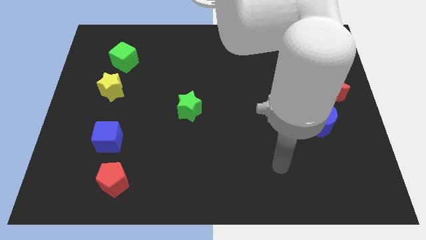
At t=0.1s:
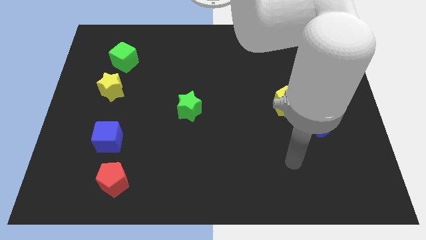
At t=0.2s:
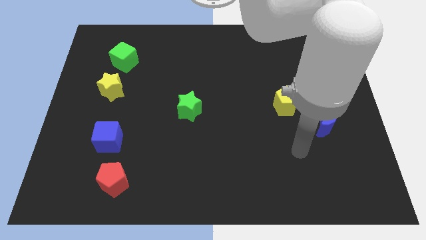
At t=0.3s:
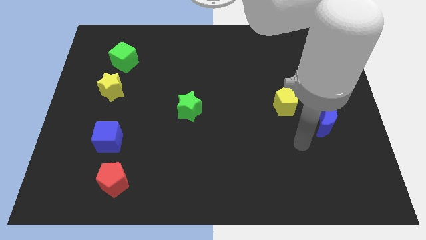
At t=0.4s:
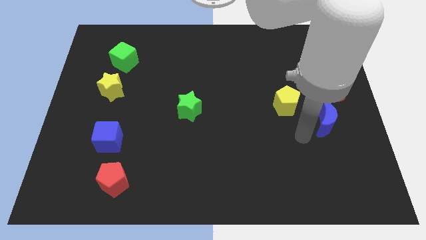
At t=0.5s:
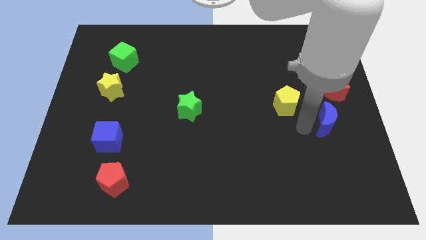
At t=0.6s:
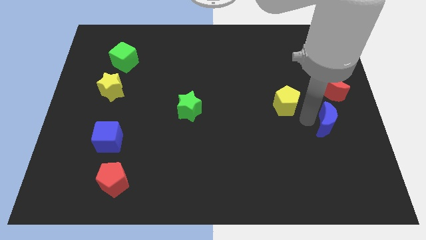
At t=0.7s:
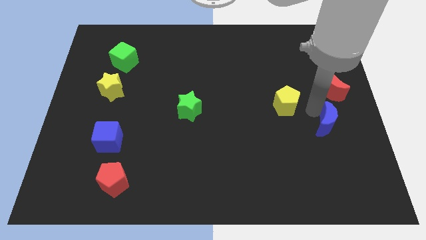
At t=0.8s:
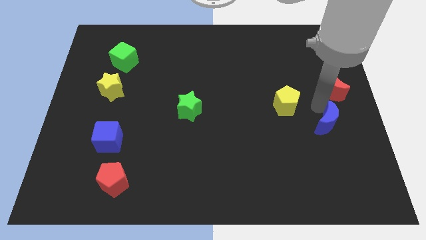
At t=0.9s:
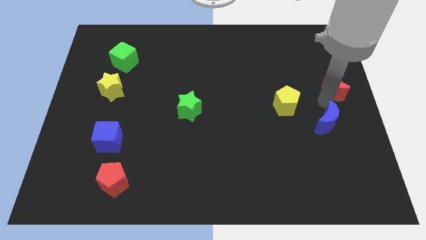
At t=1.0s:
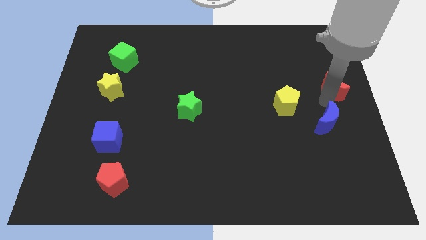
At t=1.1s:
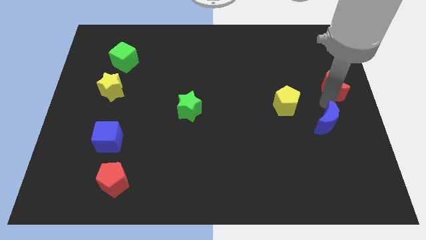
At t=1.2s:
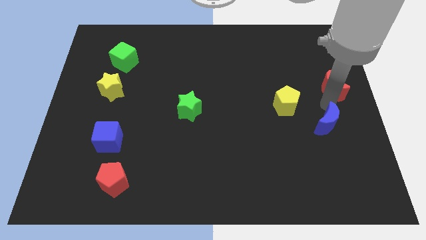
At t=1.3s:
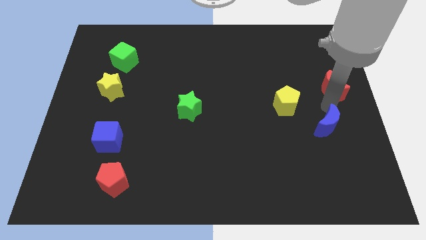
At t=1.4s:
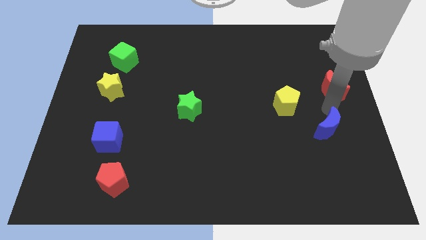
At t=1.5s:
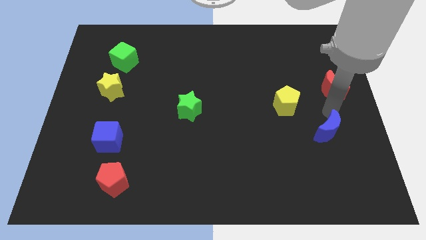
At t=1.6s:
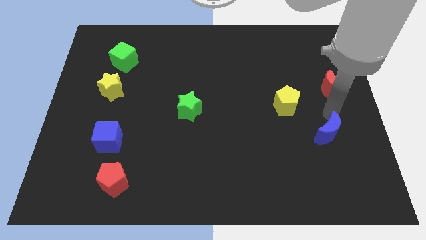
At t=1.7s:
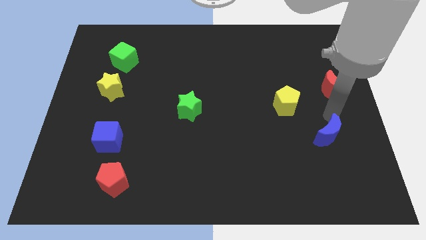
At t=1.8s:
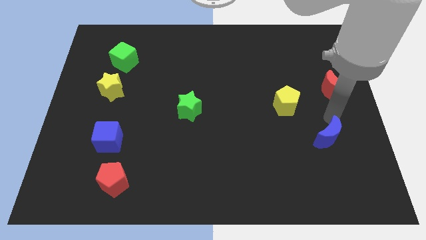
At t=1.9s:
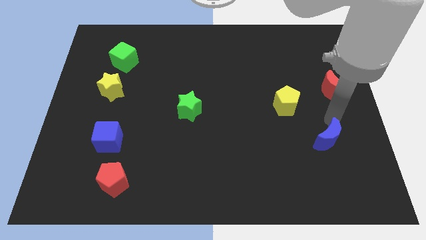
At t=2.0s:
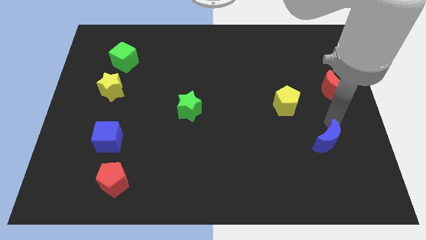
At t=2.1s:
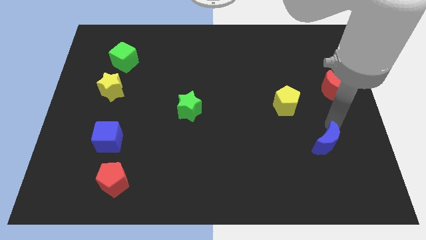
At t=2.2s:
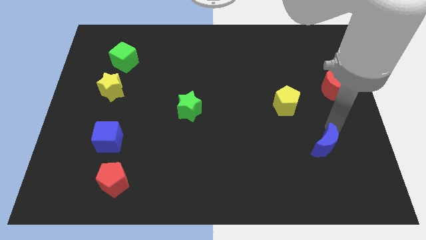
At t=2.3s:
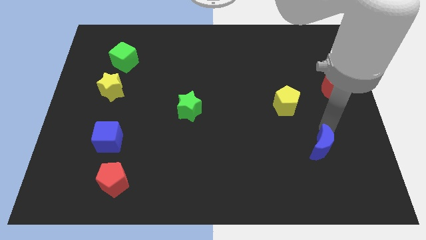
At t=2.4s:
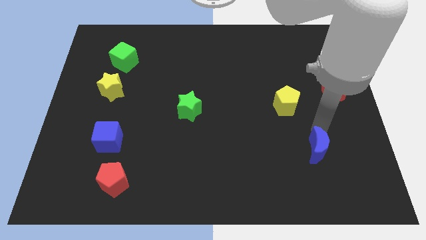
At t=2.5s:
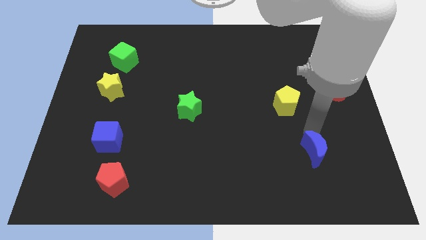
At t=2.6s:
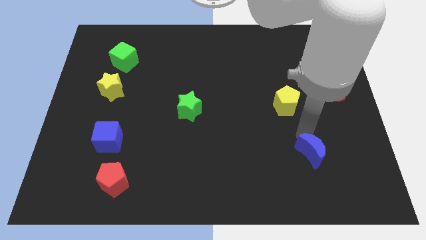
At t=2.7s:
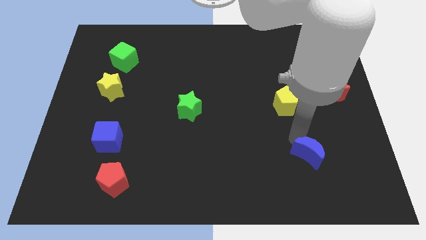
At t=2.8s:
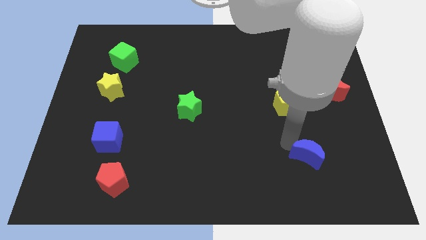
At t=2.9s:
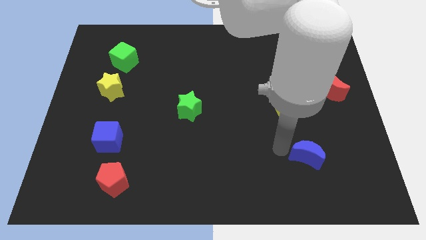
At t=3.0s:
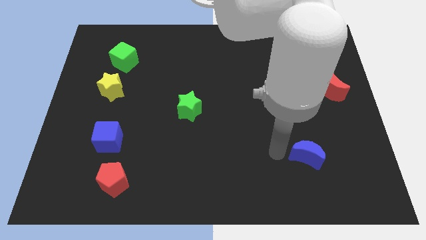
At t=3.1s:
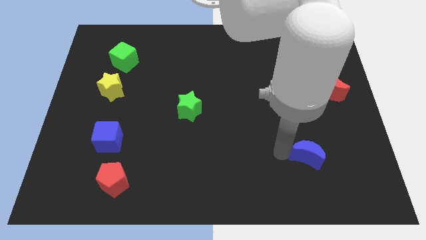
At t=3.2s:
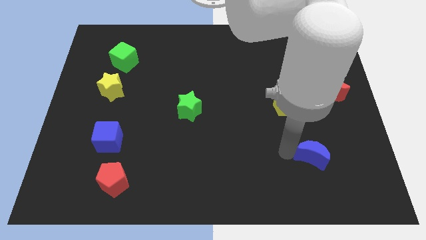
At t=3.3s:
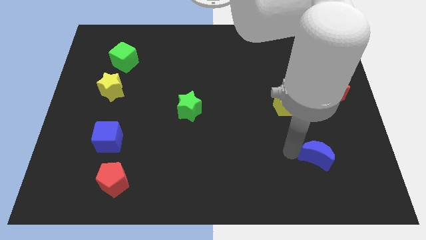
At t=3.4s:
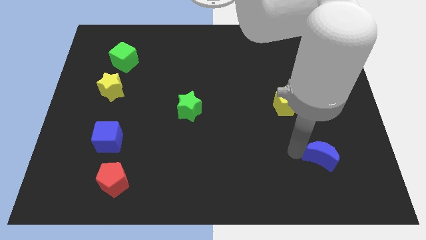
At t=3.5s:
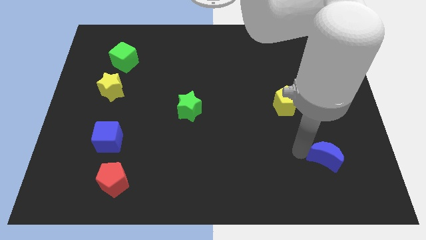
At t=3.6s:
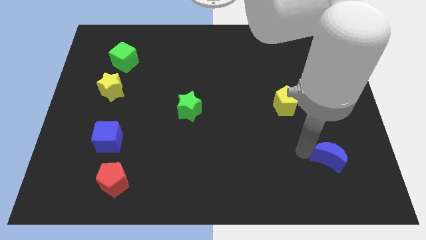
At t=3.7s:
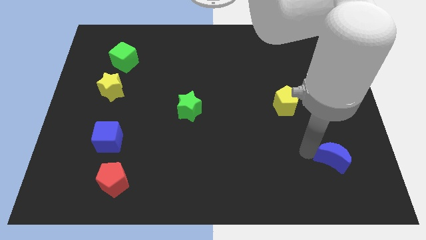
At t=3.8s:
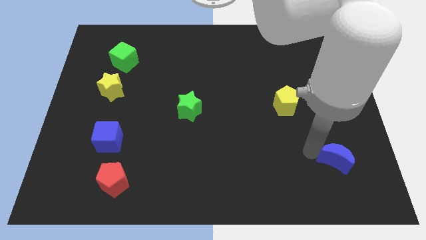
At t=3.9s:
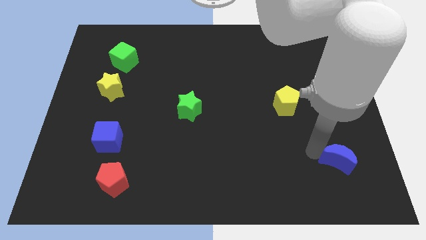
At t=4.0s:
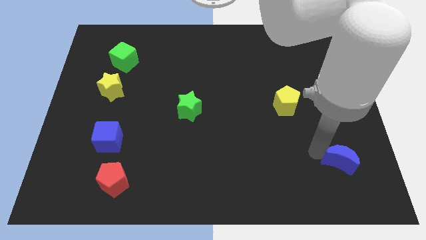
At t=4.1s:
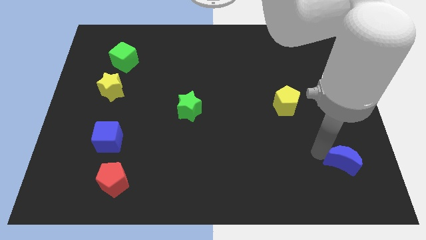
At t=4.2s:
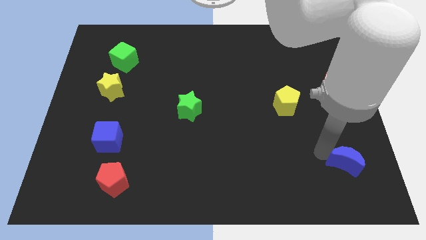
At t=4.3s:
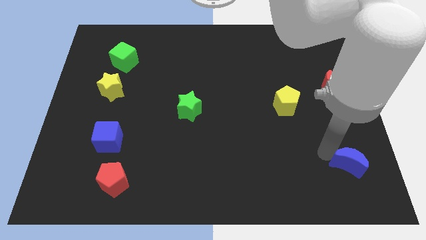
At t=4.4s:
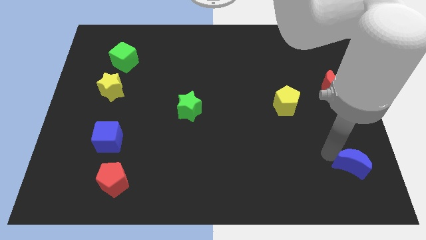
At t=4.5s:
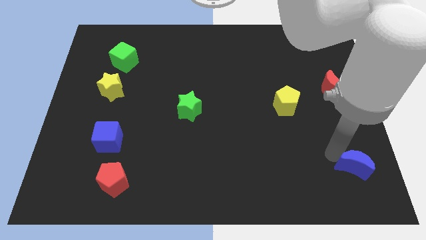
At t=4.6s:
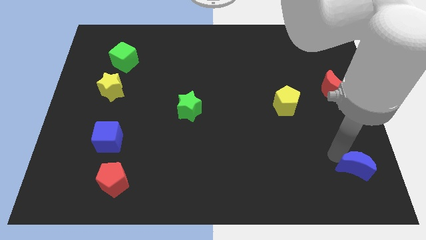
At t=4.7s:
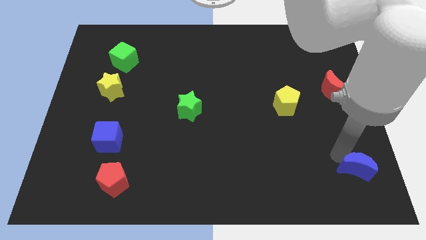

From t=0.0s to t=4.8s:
put the blue moon to the bottom right of the board

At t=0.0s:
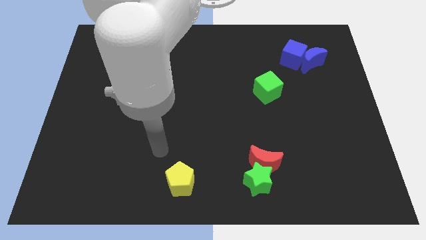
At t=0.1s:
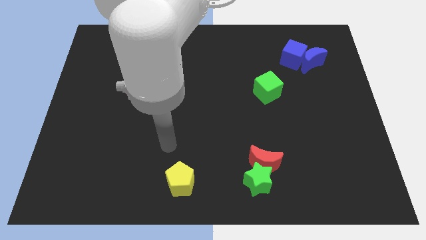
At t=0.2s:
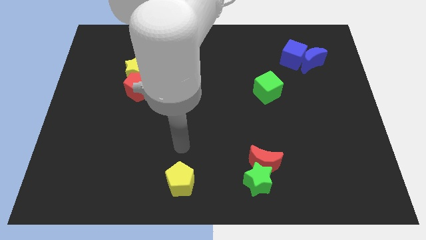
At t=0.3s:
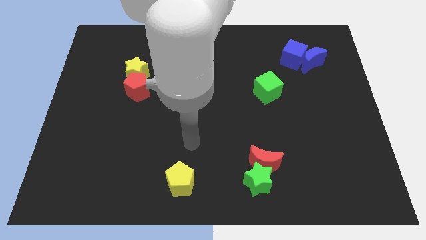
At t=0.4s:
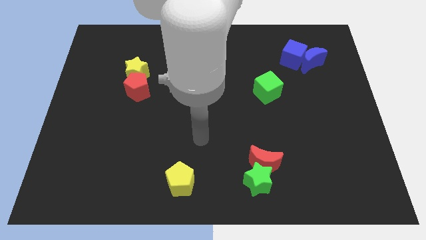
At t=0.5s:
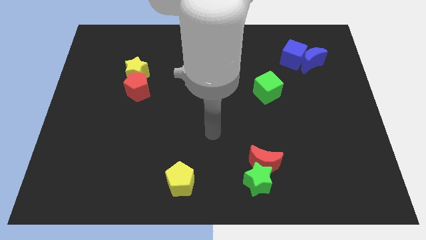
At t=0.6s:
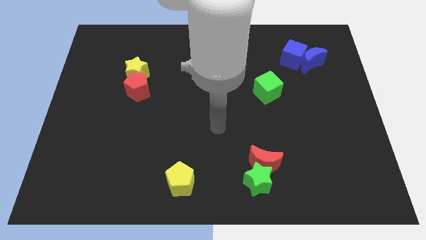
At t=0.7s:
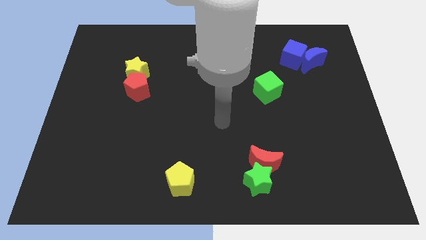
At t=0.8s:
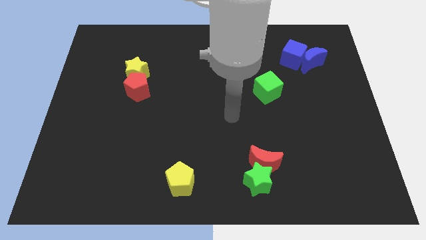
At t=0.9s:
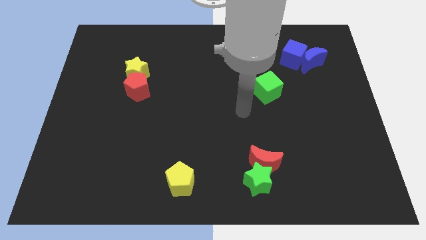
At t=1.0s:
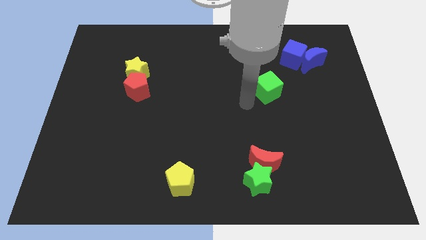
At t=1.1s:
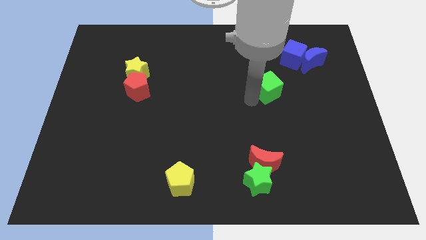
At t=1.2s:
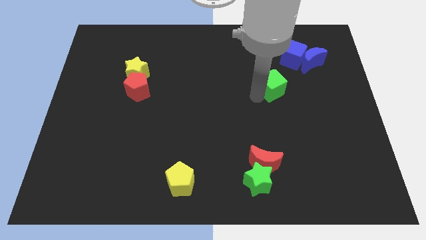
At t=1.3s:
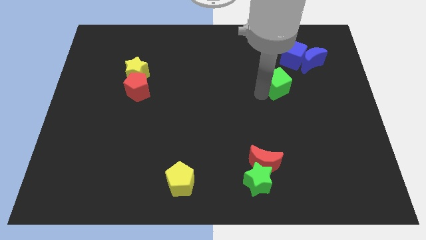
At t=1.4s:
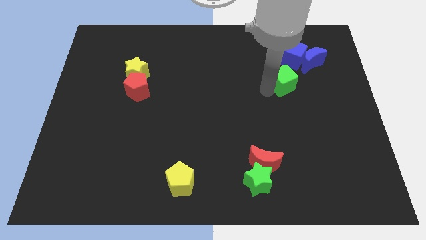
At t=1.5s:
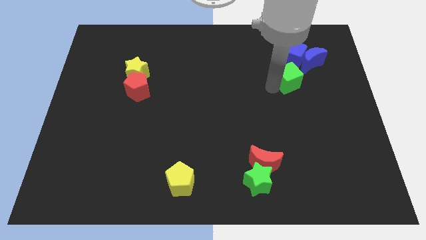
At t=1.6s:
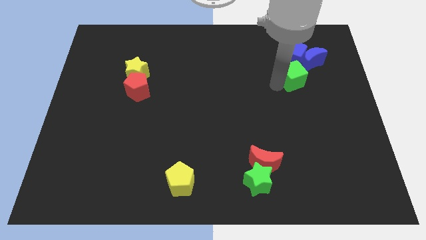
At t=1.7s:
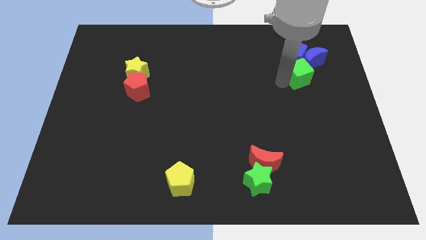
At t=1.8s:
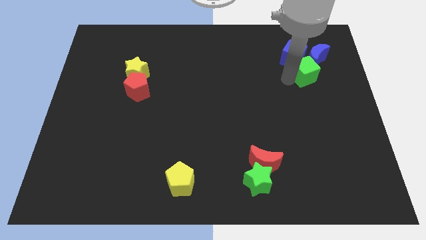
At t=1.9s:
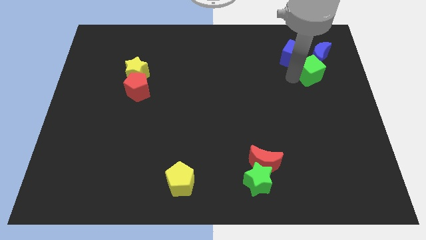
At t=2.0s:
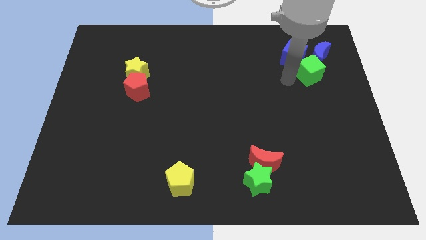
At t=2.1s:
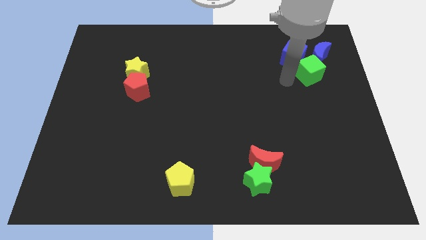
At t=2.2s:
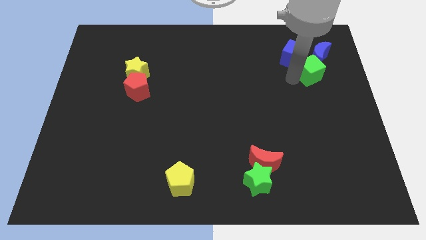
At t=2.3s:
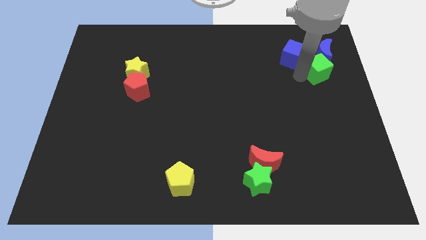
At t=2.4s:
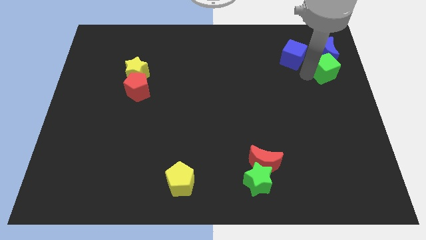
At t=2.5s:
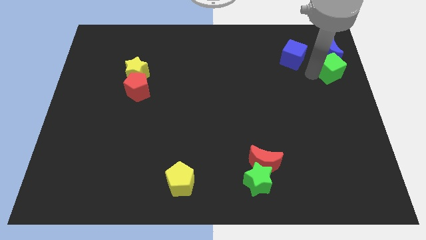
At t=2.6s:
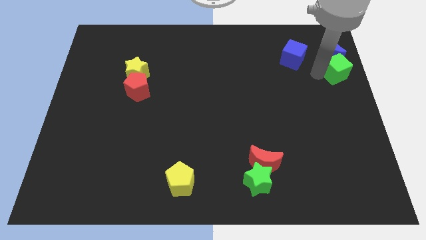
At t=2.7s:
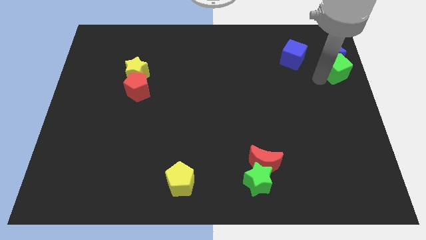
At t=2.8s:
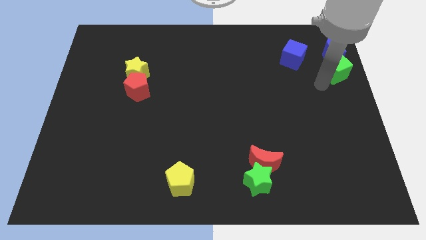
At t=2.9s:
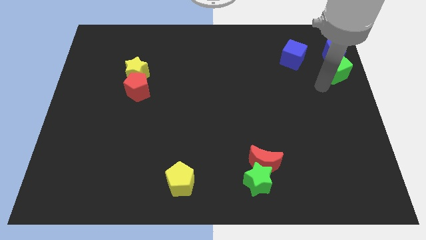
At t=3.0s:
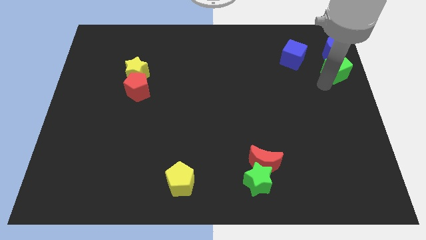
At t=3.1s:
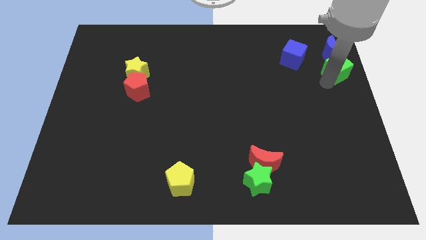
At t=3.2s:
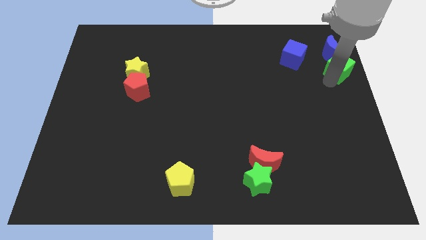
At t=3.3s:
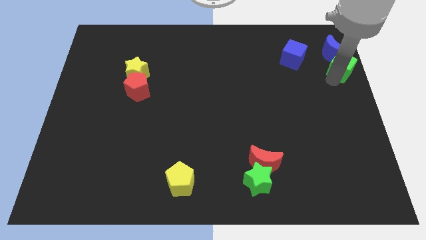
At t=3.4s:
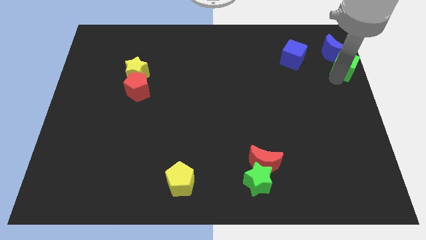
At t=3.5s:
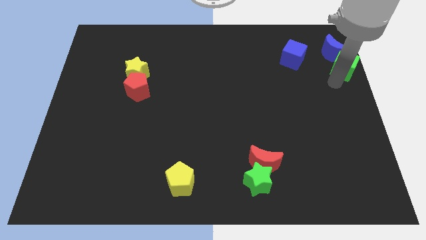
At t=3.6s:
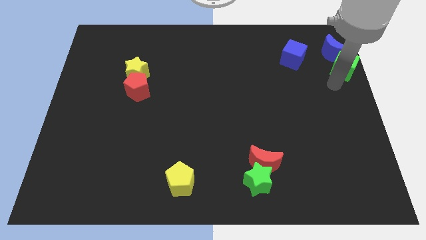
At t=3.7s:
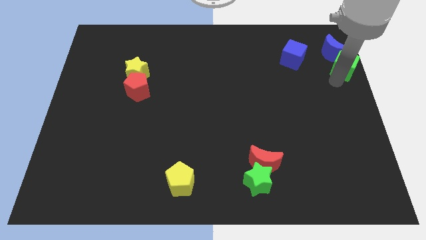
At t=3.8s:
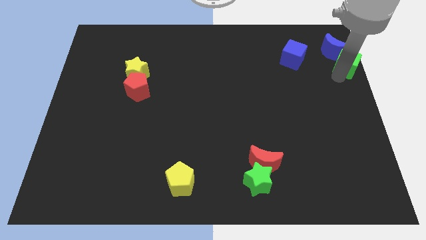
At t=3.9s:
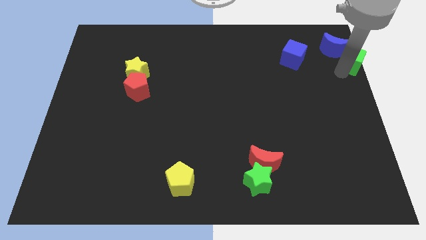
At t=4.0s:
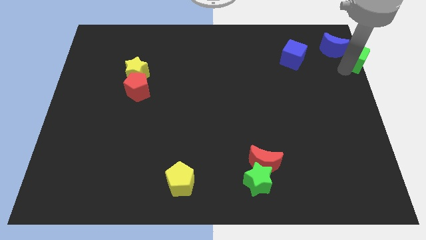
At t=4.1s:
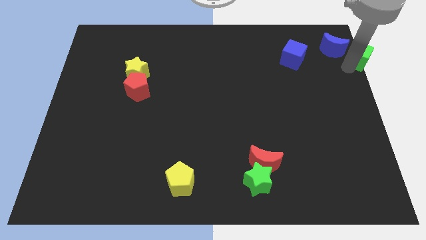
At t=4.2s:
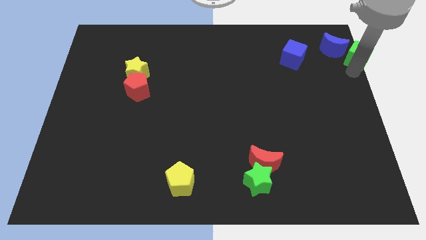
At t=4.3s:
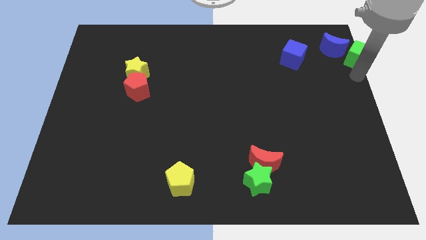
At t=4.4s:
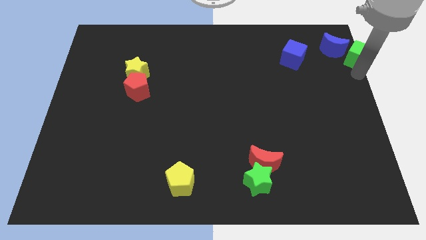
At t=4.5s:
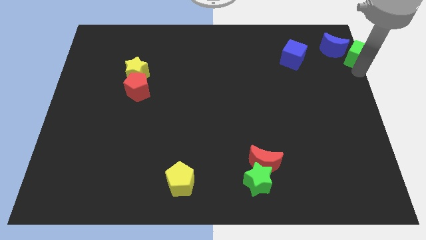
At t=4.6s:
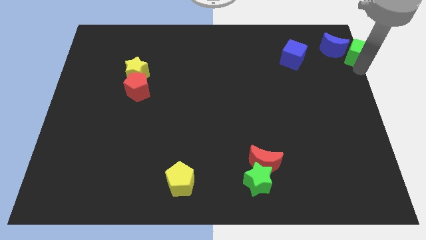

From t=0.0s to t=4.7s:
put the green cube to the top right of the board
